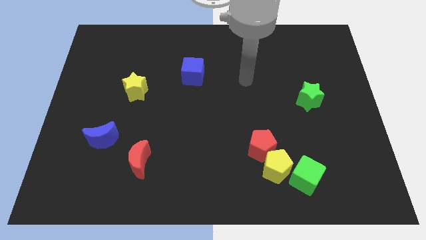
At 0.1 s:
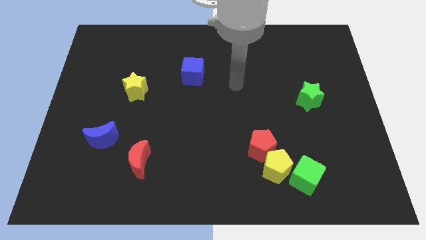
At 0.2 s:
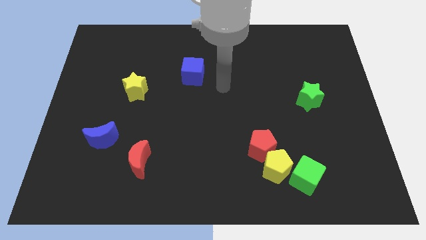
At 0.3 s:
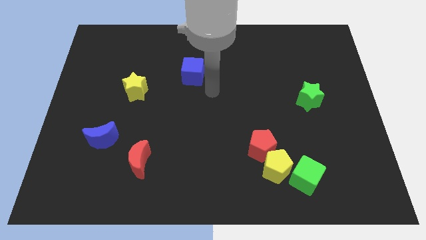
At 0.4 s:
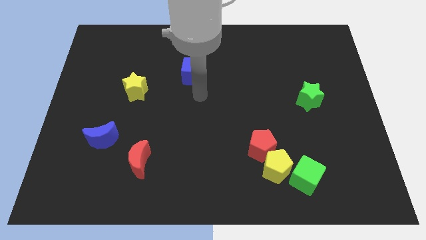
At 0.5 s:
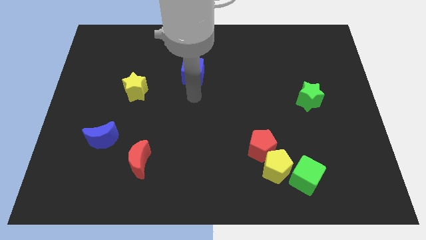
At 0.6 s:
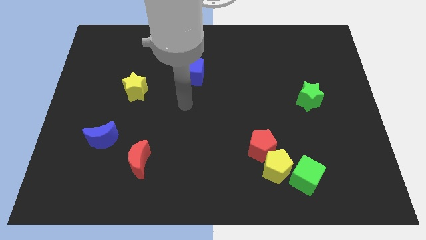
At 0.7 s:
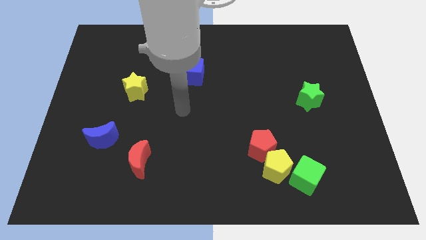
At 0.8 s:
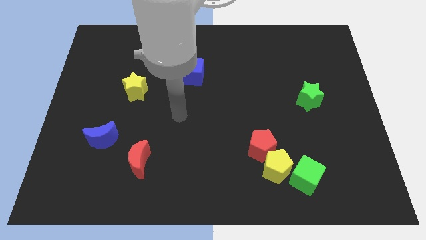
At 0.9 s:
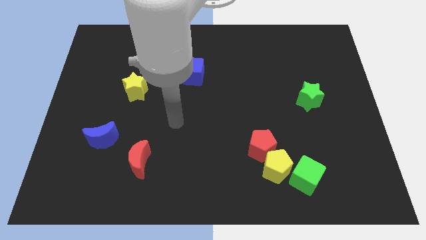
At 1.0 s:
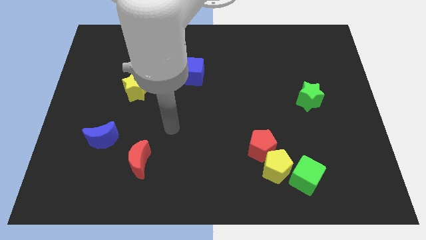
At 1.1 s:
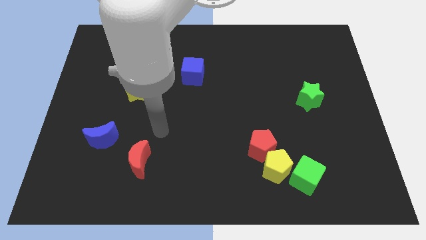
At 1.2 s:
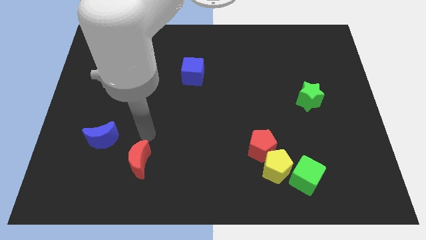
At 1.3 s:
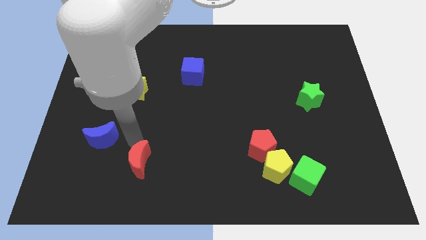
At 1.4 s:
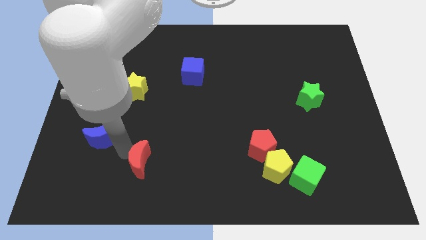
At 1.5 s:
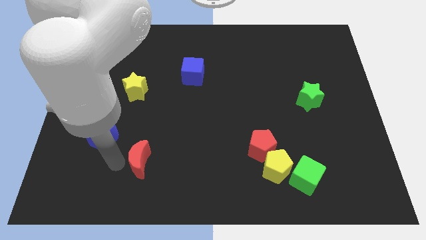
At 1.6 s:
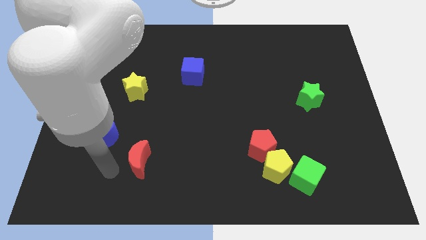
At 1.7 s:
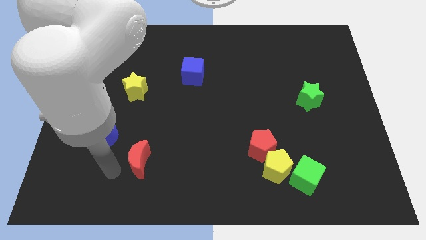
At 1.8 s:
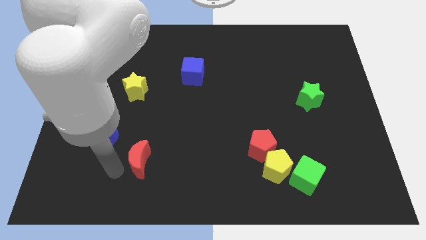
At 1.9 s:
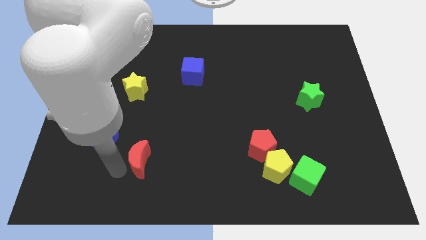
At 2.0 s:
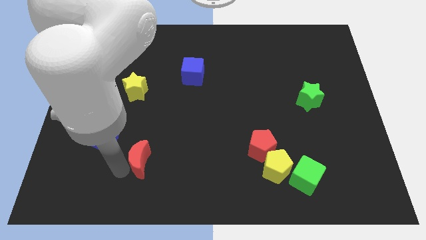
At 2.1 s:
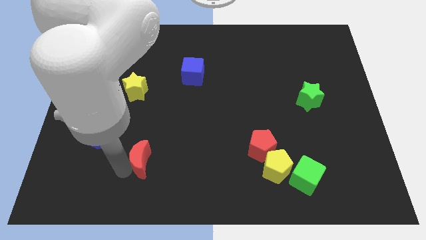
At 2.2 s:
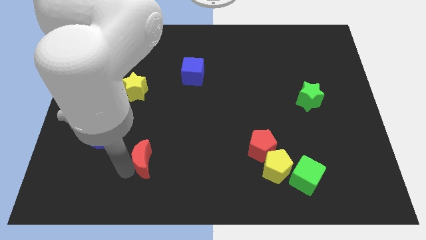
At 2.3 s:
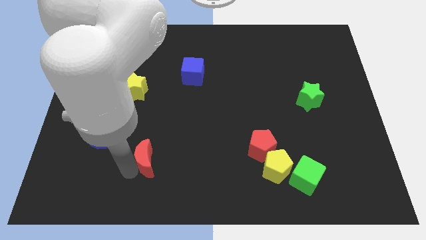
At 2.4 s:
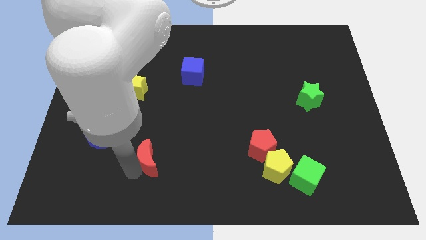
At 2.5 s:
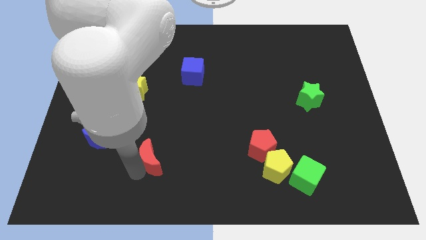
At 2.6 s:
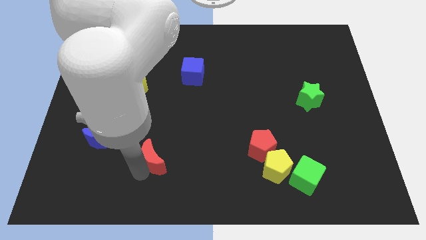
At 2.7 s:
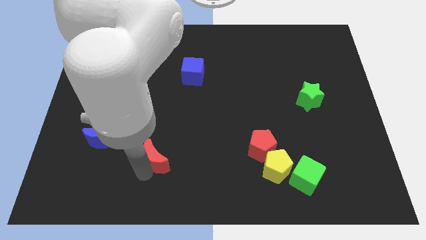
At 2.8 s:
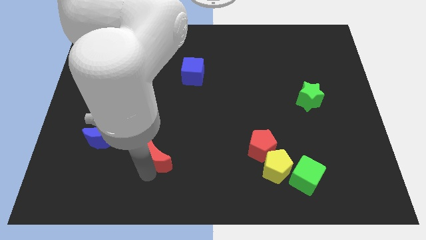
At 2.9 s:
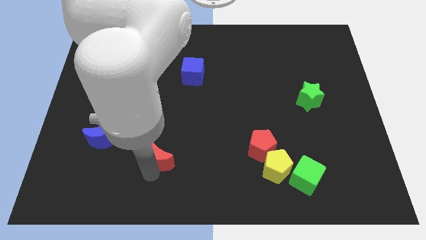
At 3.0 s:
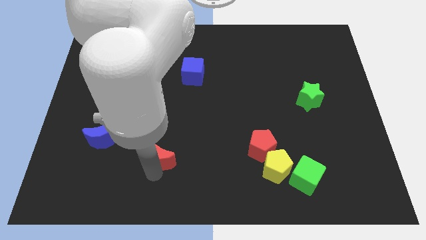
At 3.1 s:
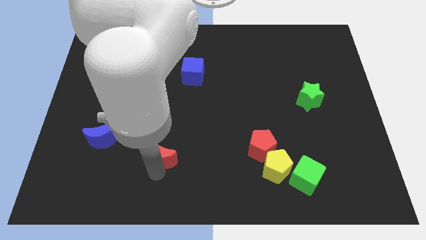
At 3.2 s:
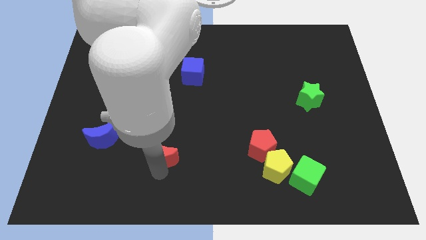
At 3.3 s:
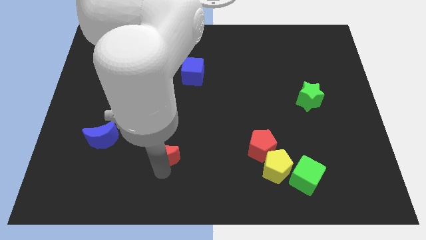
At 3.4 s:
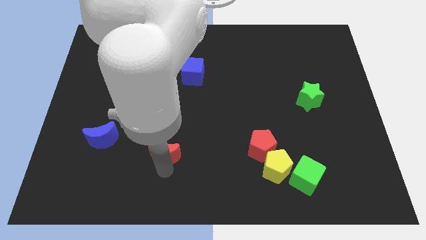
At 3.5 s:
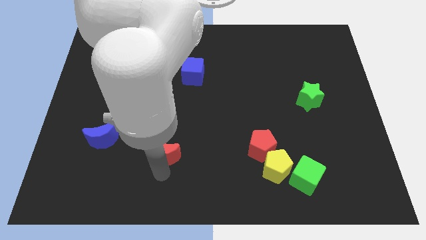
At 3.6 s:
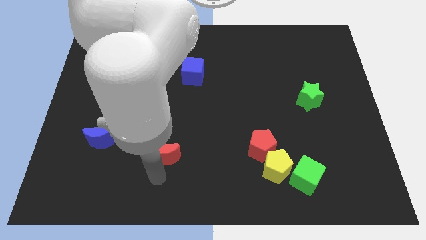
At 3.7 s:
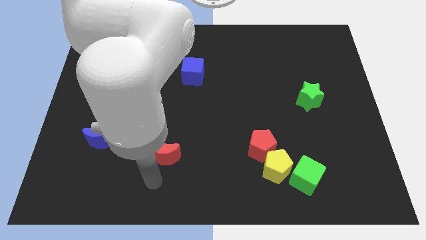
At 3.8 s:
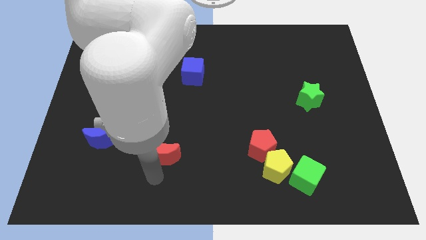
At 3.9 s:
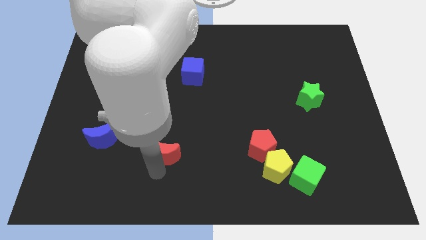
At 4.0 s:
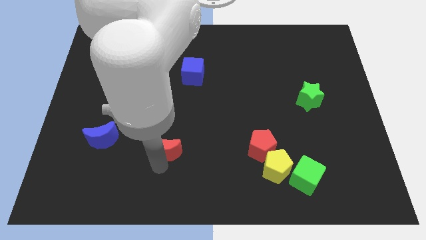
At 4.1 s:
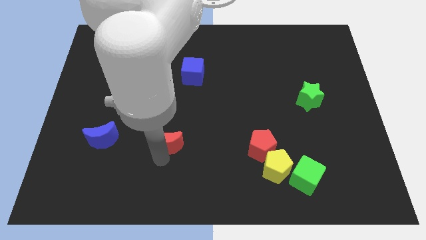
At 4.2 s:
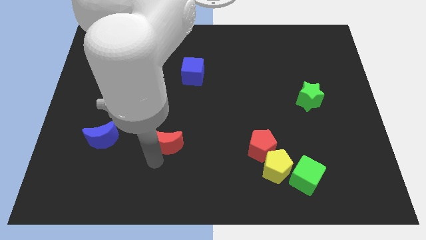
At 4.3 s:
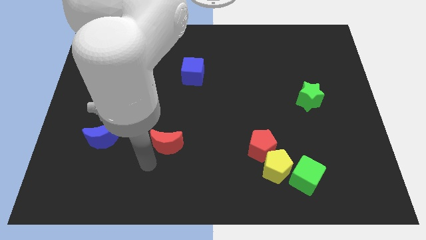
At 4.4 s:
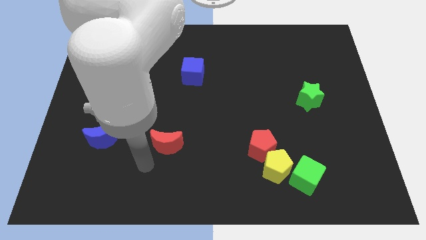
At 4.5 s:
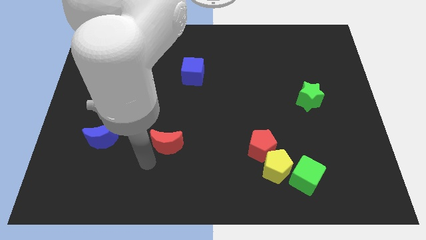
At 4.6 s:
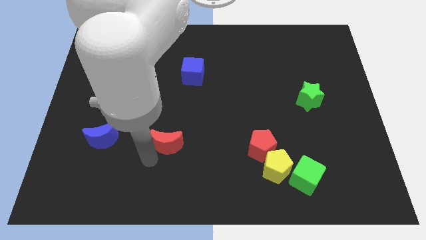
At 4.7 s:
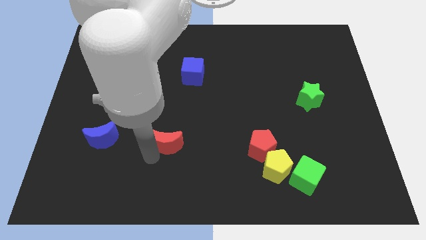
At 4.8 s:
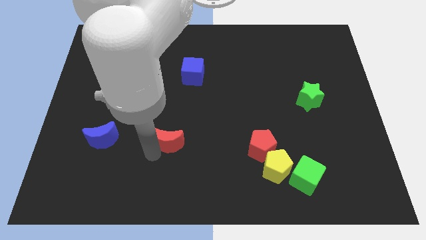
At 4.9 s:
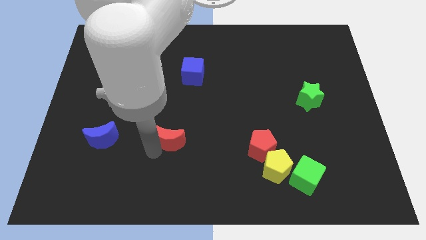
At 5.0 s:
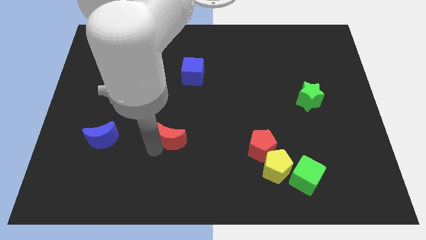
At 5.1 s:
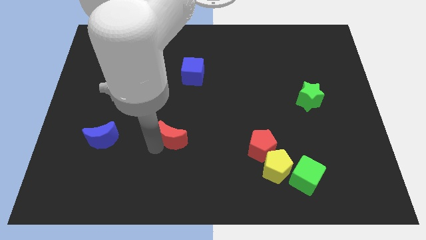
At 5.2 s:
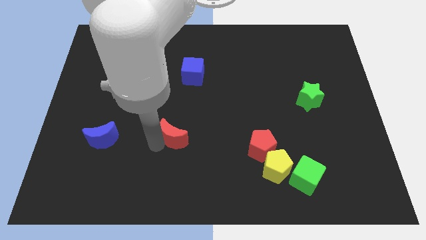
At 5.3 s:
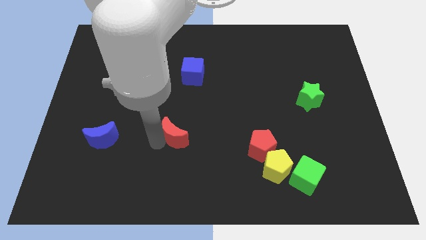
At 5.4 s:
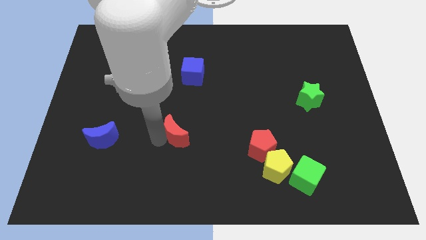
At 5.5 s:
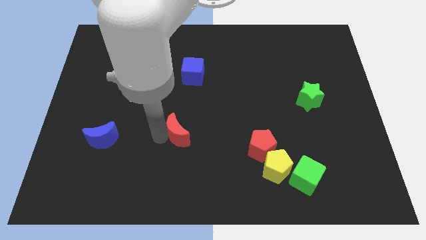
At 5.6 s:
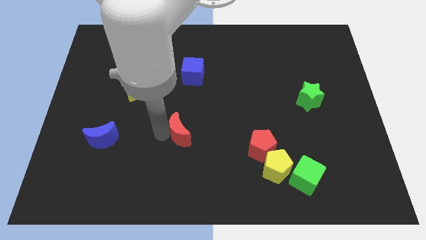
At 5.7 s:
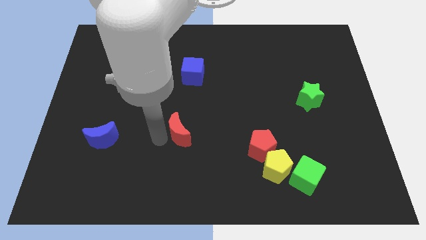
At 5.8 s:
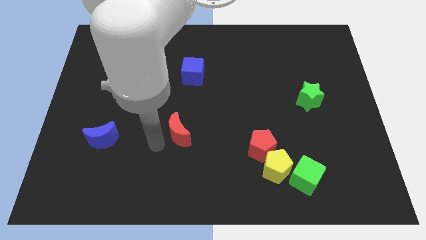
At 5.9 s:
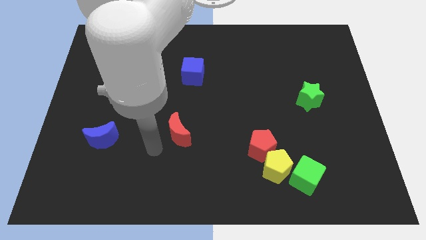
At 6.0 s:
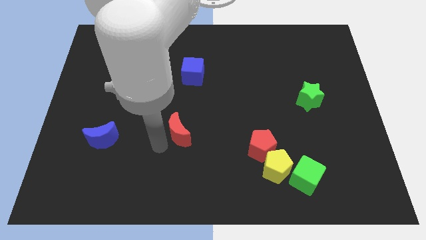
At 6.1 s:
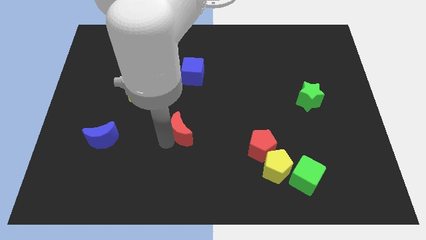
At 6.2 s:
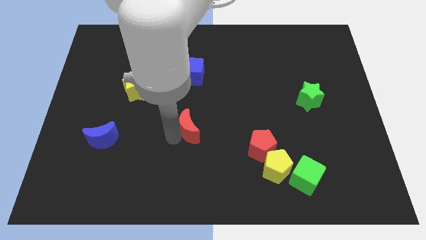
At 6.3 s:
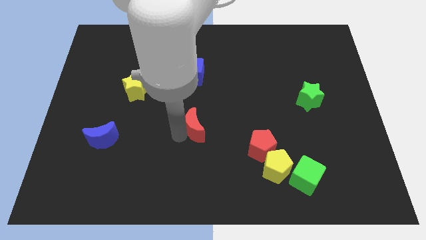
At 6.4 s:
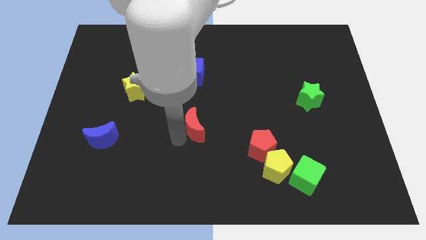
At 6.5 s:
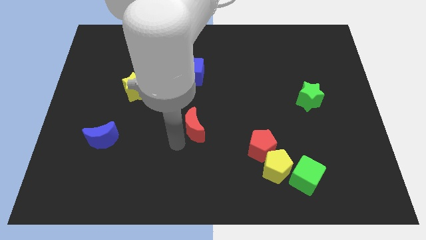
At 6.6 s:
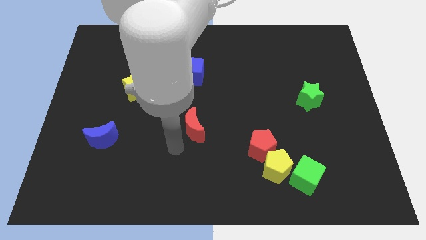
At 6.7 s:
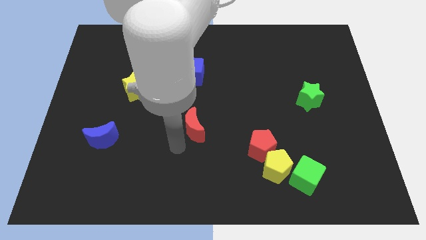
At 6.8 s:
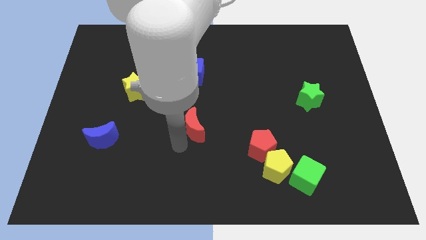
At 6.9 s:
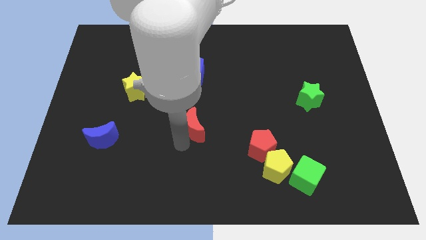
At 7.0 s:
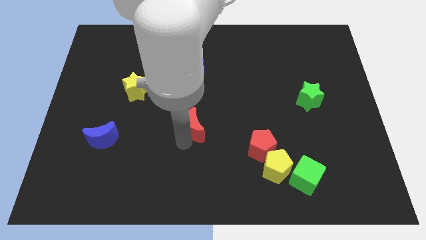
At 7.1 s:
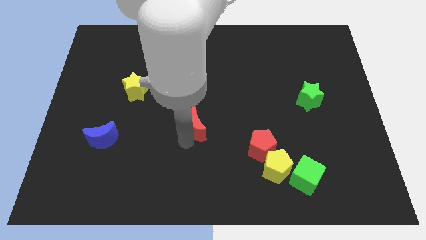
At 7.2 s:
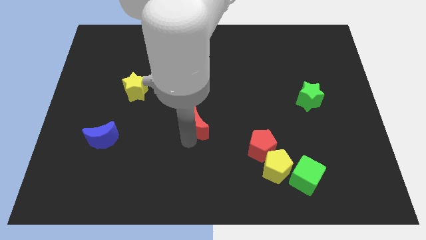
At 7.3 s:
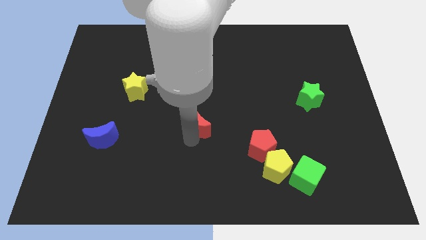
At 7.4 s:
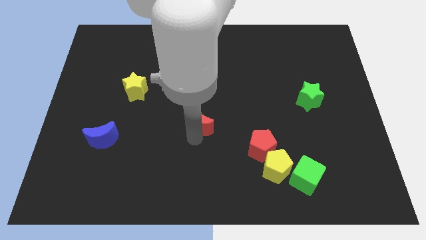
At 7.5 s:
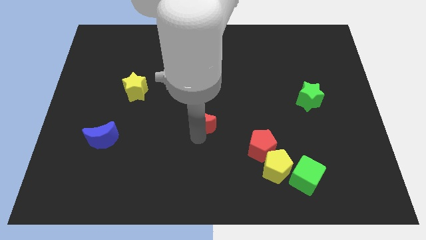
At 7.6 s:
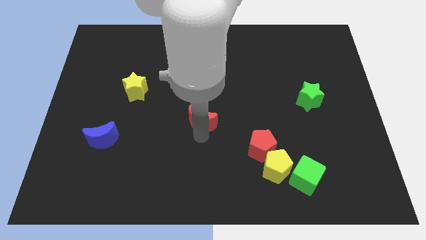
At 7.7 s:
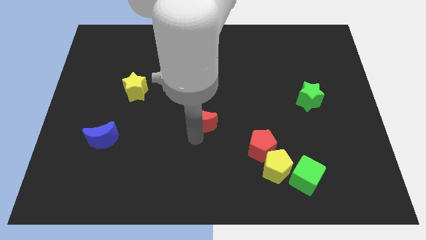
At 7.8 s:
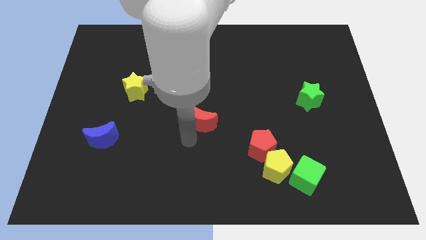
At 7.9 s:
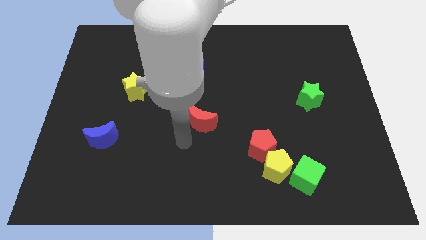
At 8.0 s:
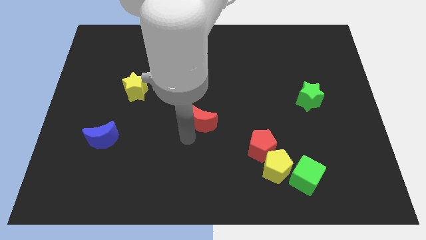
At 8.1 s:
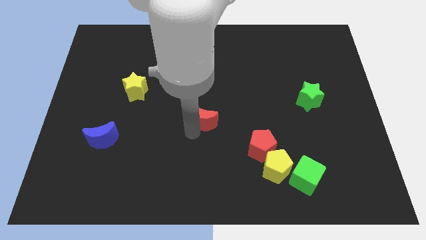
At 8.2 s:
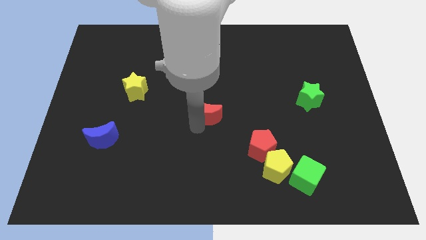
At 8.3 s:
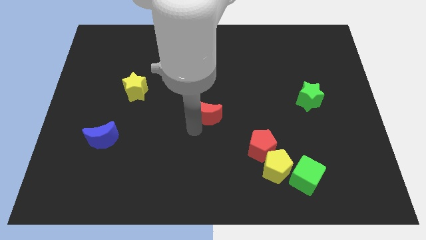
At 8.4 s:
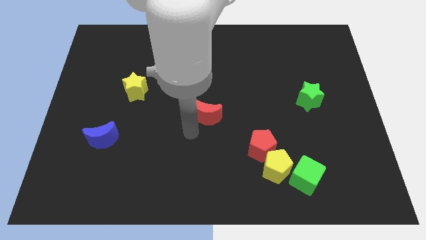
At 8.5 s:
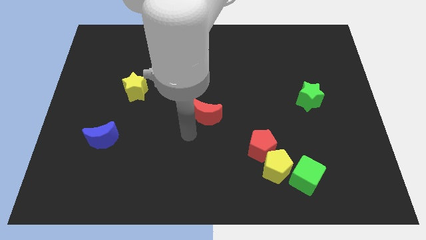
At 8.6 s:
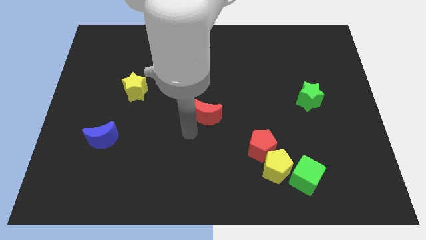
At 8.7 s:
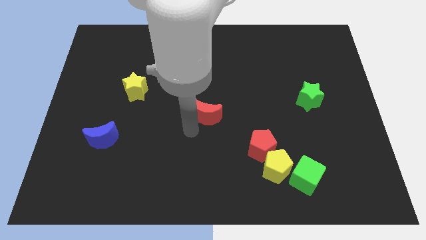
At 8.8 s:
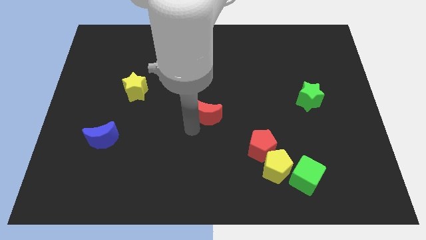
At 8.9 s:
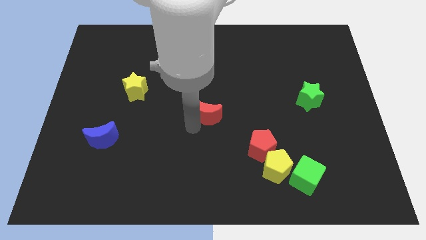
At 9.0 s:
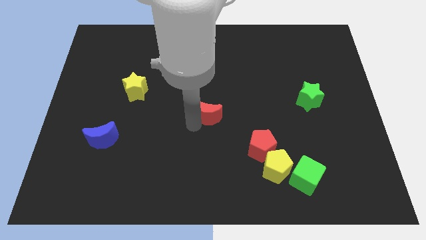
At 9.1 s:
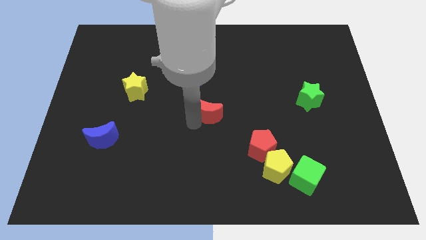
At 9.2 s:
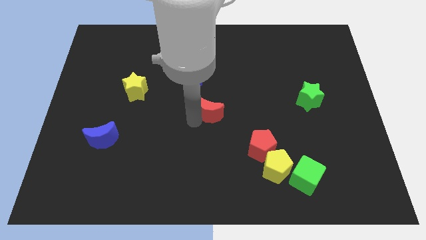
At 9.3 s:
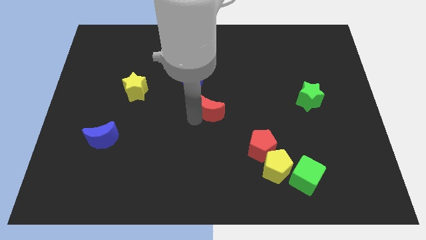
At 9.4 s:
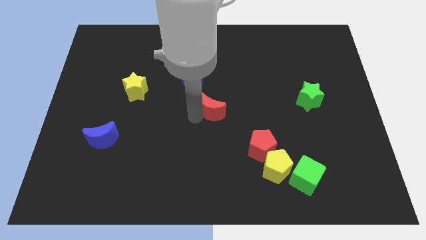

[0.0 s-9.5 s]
move the red moon diagonally upwards and to the right
